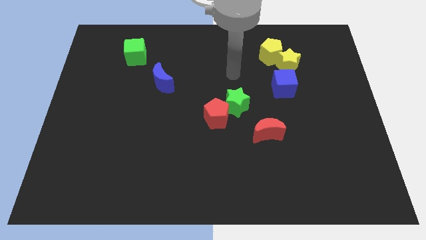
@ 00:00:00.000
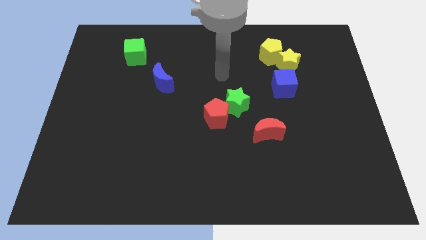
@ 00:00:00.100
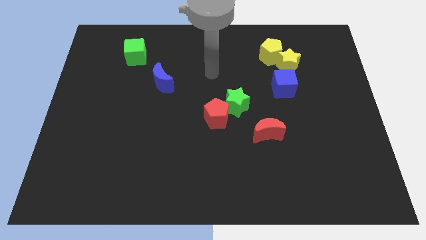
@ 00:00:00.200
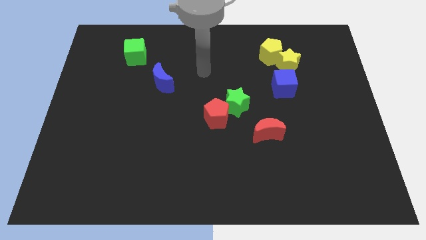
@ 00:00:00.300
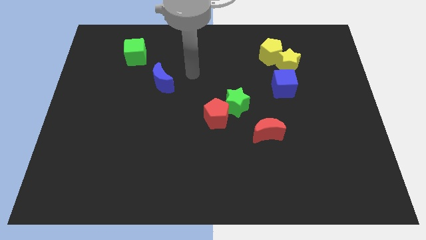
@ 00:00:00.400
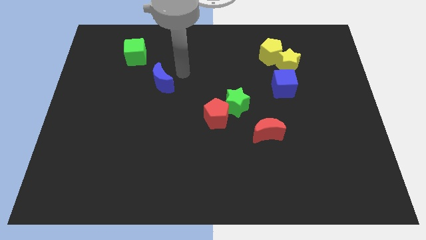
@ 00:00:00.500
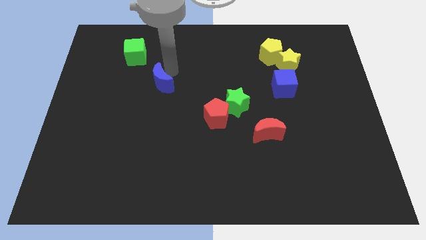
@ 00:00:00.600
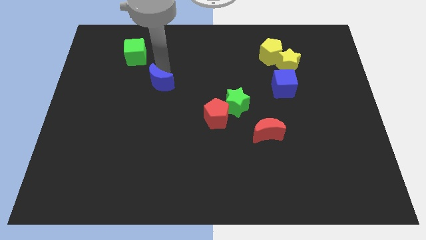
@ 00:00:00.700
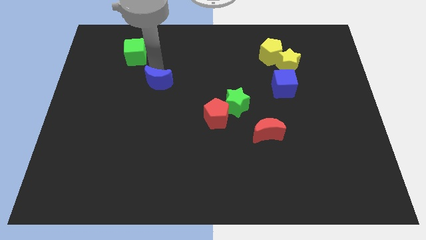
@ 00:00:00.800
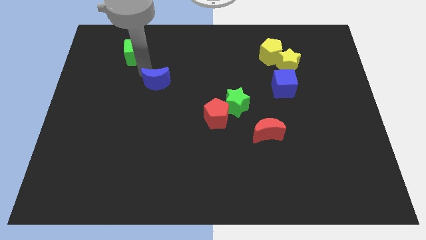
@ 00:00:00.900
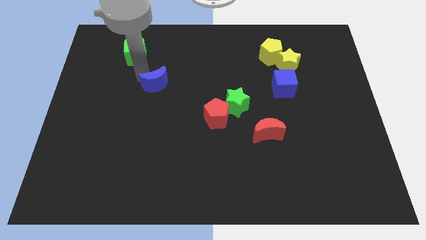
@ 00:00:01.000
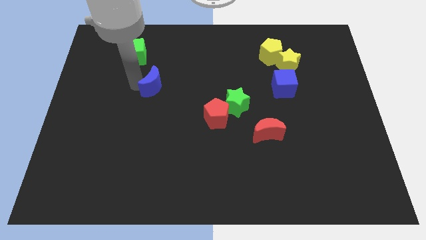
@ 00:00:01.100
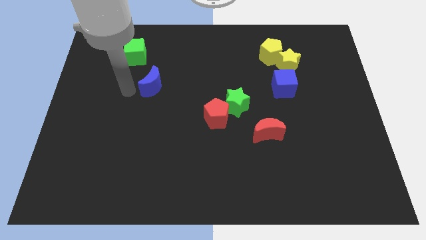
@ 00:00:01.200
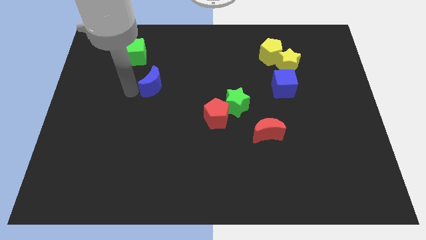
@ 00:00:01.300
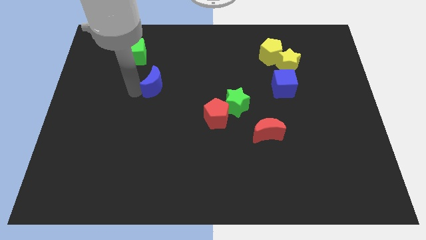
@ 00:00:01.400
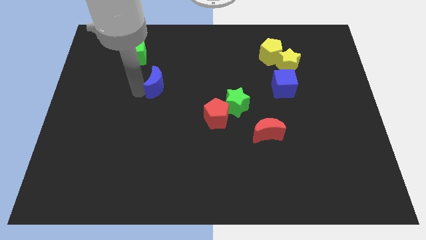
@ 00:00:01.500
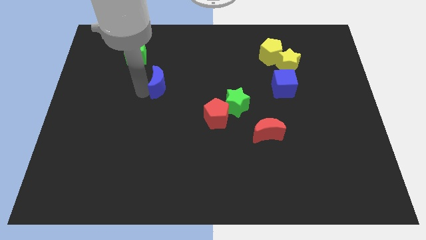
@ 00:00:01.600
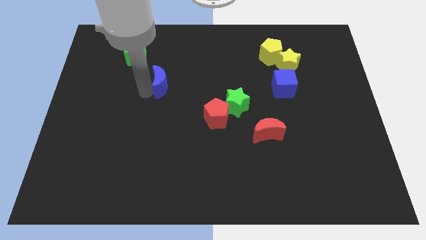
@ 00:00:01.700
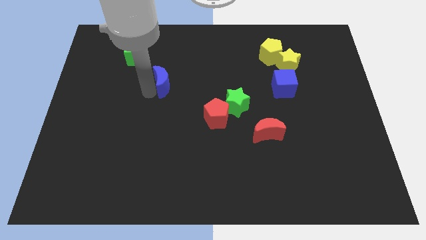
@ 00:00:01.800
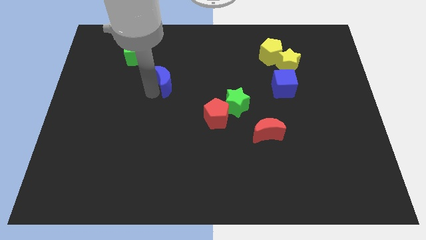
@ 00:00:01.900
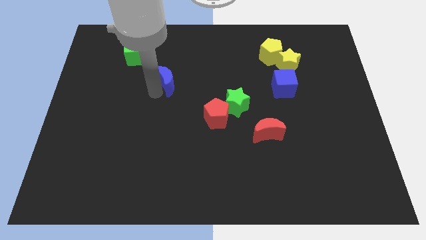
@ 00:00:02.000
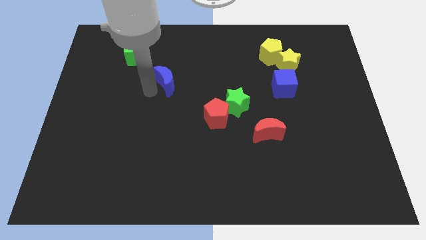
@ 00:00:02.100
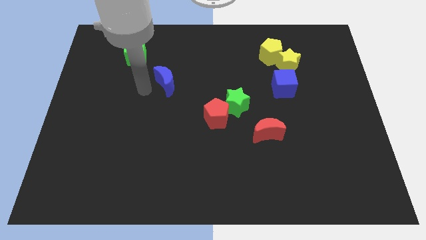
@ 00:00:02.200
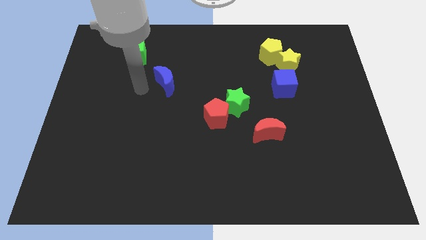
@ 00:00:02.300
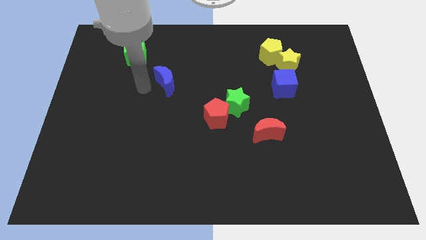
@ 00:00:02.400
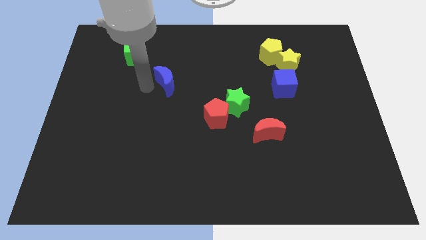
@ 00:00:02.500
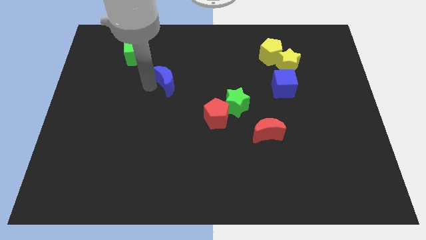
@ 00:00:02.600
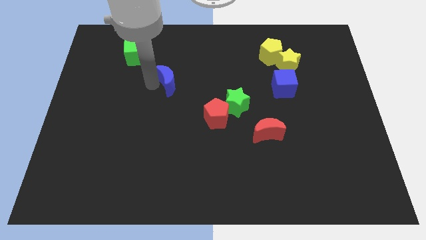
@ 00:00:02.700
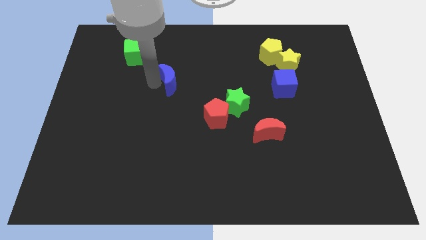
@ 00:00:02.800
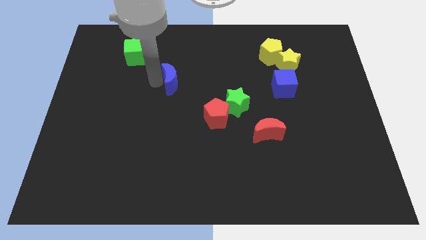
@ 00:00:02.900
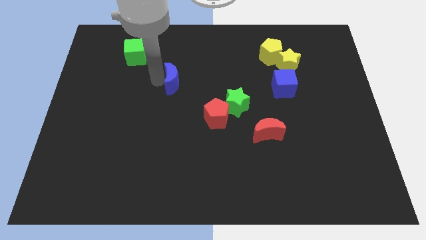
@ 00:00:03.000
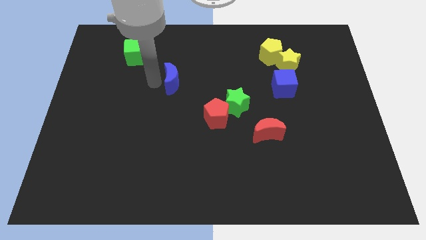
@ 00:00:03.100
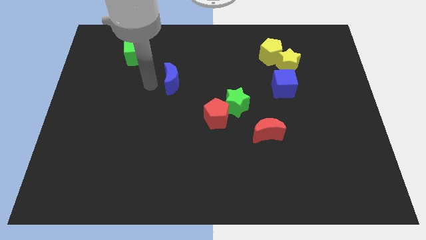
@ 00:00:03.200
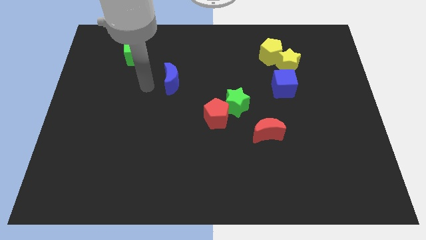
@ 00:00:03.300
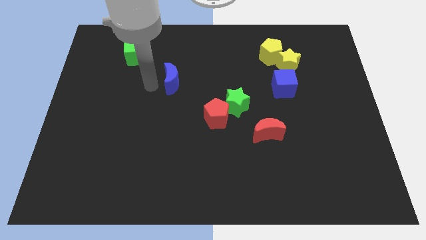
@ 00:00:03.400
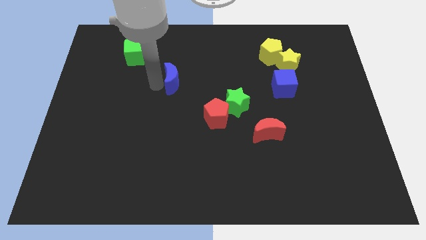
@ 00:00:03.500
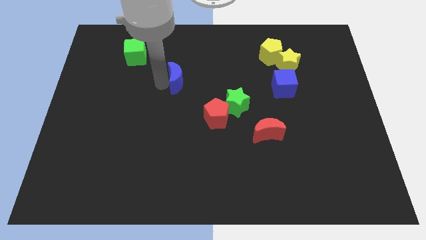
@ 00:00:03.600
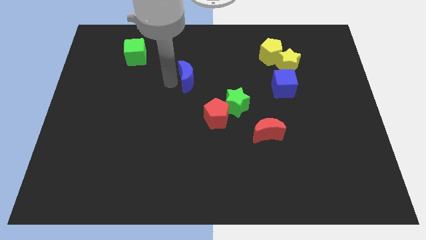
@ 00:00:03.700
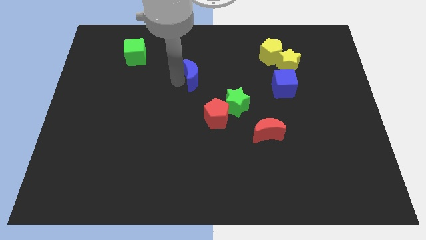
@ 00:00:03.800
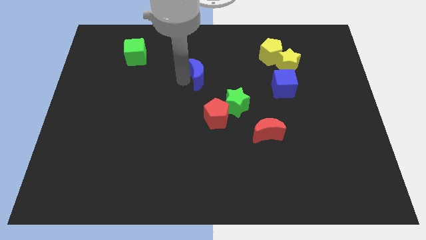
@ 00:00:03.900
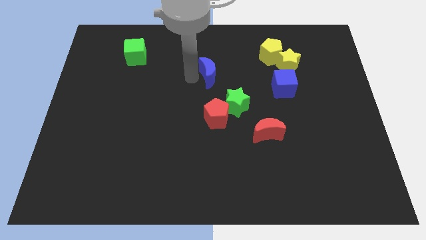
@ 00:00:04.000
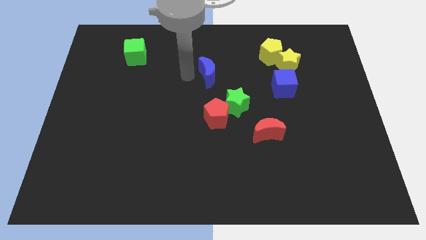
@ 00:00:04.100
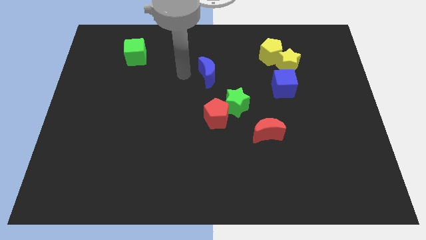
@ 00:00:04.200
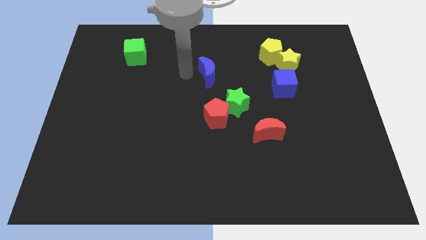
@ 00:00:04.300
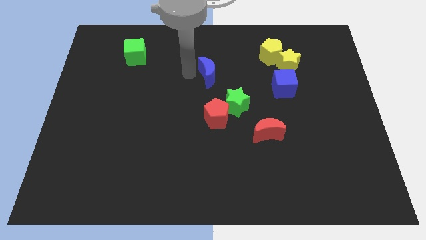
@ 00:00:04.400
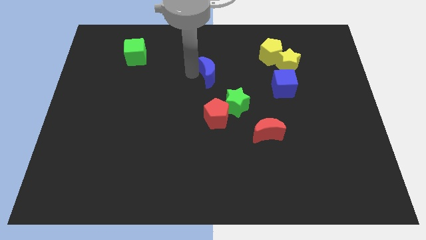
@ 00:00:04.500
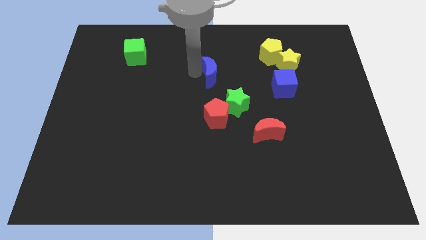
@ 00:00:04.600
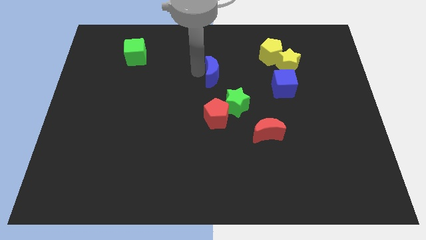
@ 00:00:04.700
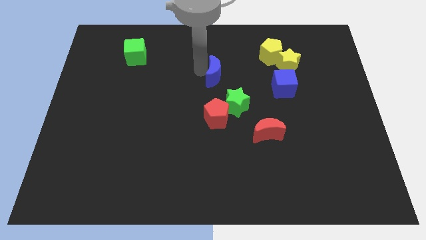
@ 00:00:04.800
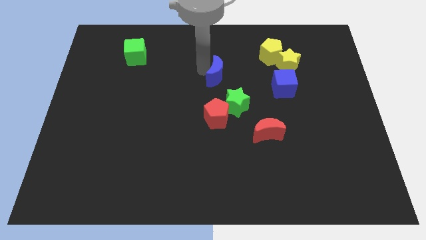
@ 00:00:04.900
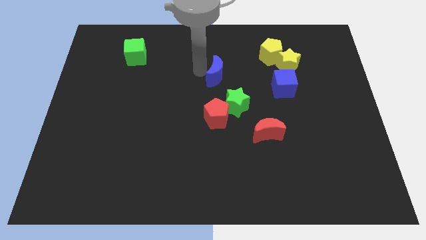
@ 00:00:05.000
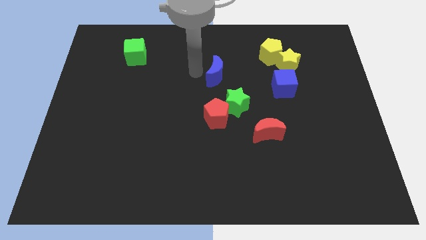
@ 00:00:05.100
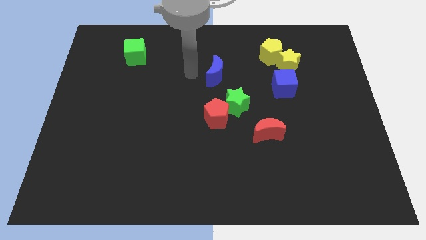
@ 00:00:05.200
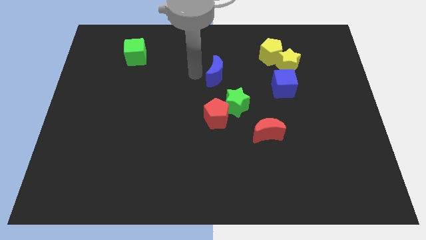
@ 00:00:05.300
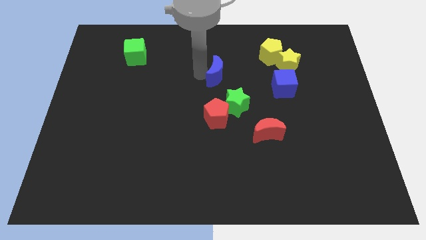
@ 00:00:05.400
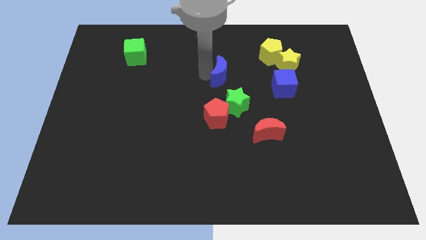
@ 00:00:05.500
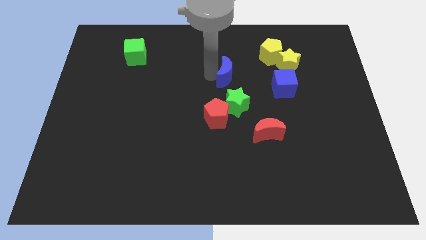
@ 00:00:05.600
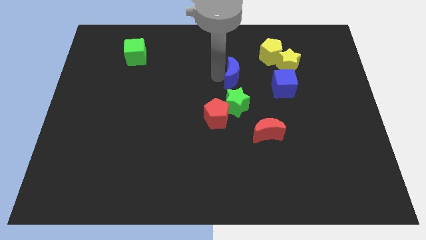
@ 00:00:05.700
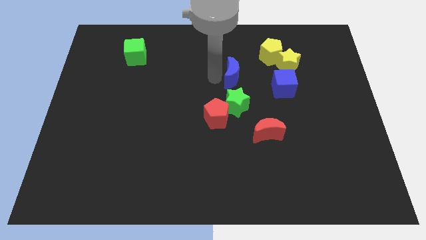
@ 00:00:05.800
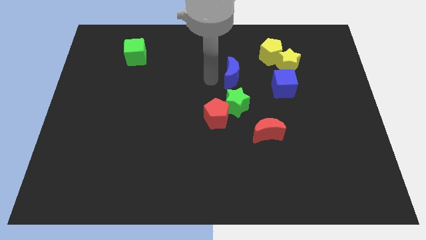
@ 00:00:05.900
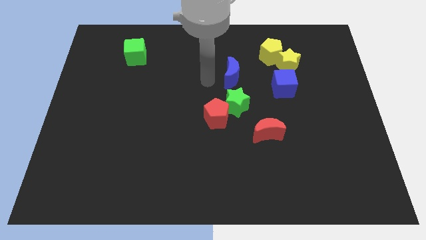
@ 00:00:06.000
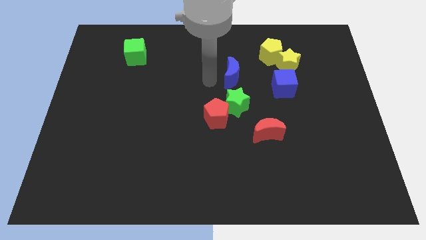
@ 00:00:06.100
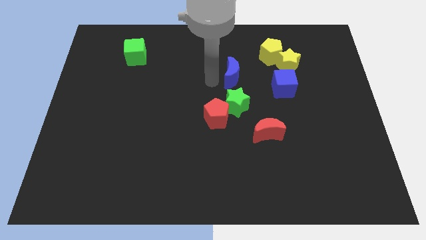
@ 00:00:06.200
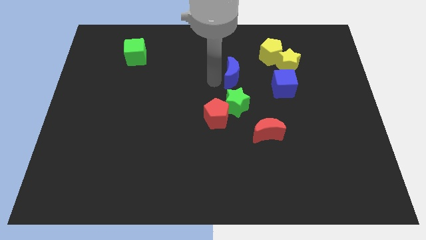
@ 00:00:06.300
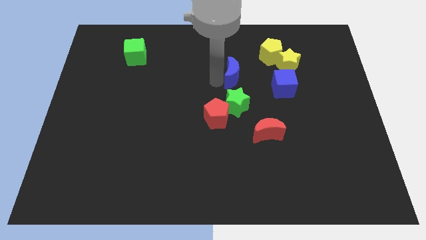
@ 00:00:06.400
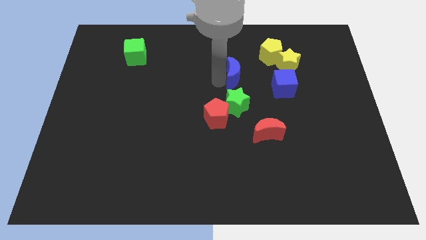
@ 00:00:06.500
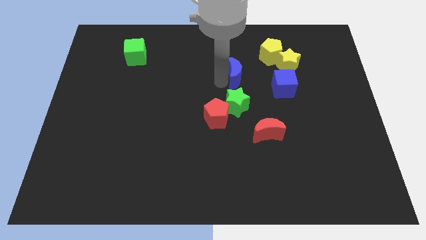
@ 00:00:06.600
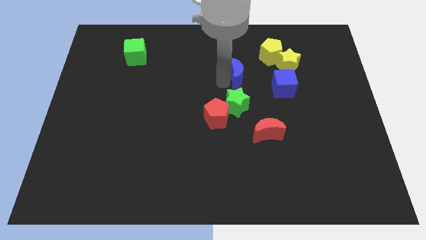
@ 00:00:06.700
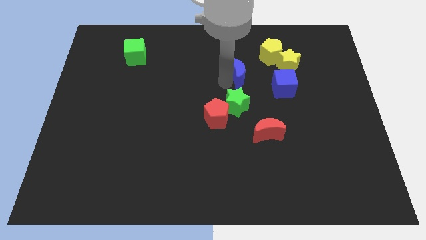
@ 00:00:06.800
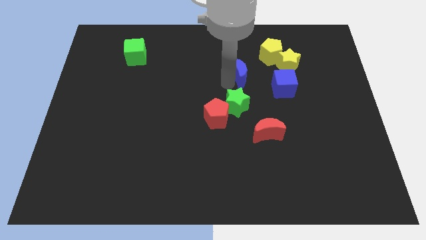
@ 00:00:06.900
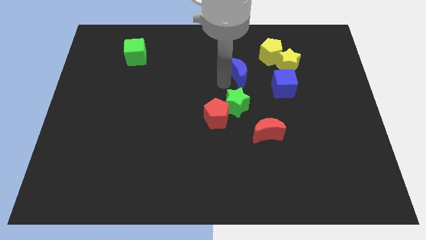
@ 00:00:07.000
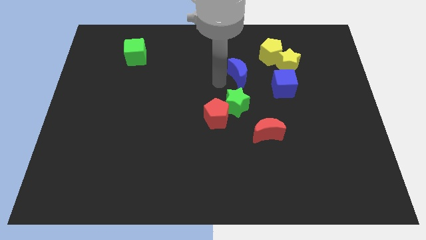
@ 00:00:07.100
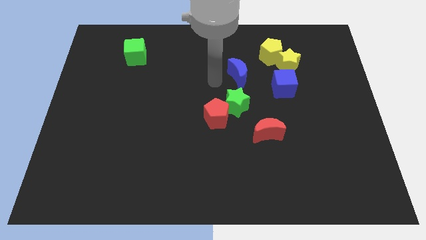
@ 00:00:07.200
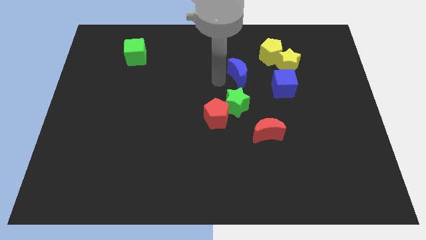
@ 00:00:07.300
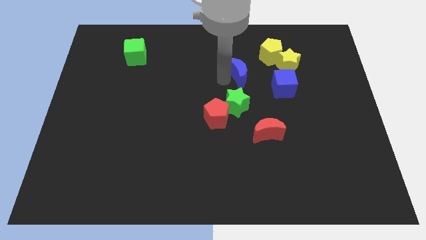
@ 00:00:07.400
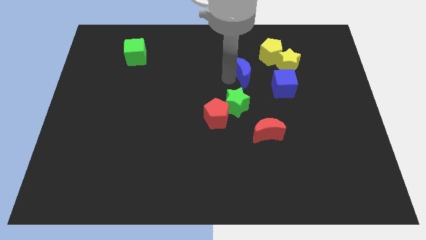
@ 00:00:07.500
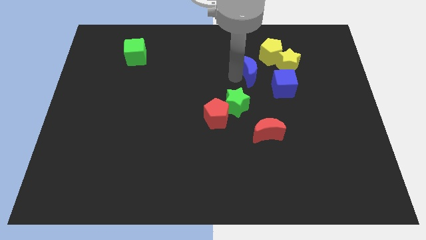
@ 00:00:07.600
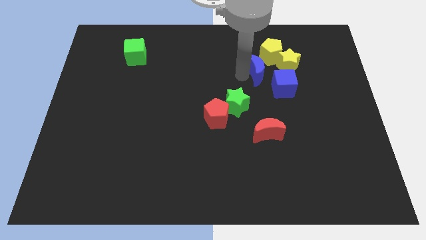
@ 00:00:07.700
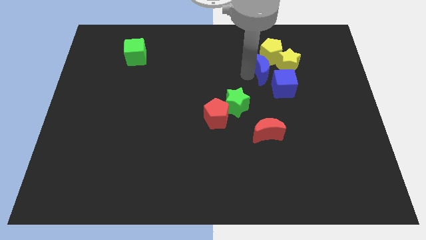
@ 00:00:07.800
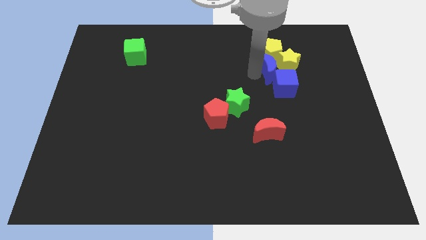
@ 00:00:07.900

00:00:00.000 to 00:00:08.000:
put the blue moon close to the yellow star
